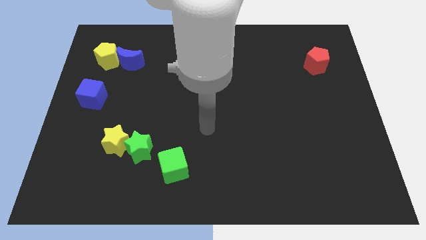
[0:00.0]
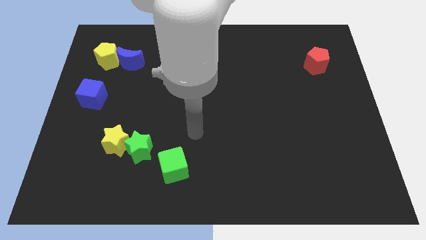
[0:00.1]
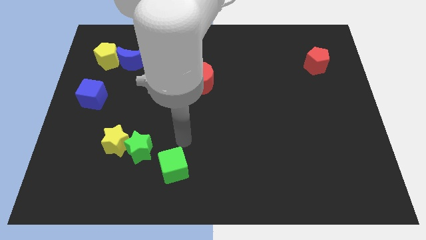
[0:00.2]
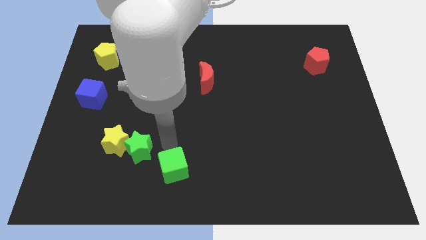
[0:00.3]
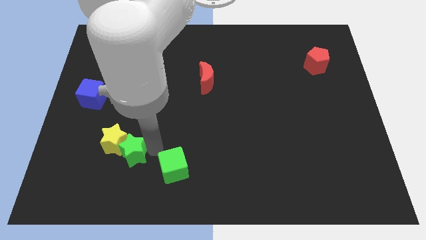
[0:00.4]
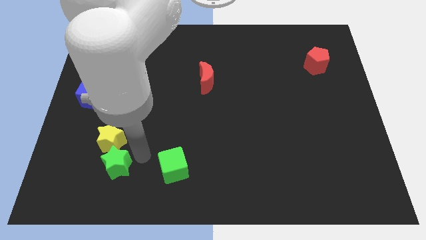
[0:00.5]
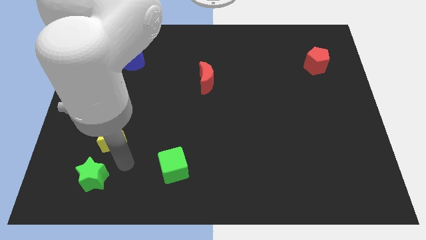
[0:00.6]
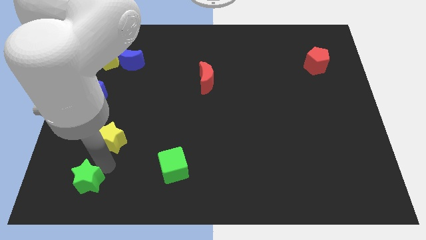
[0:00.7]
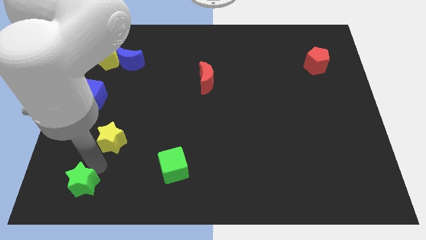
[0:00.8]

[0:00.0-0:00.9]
separate the yellow star from the green star

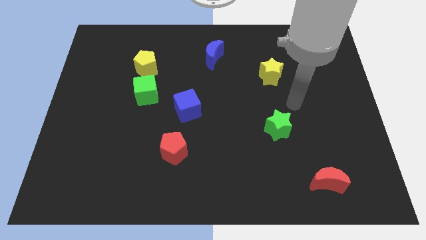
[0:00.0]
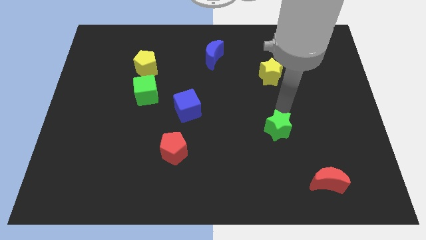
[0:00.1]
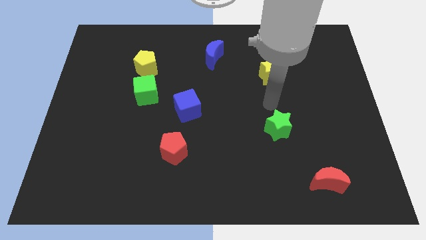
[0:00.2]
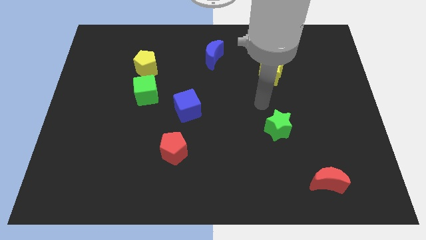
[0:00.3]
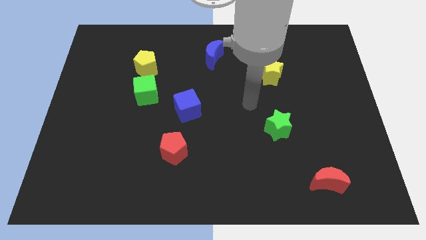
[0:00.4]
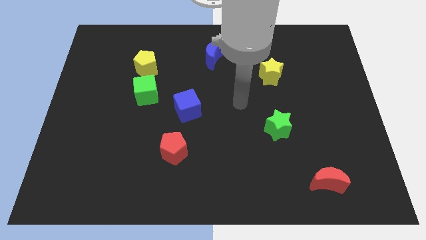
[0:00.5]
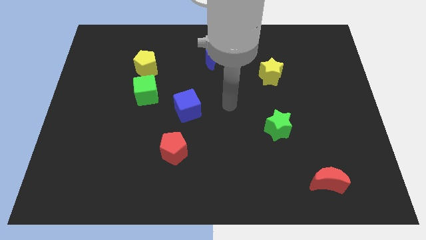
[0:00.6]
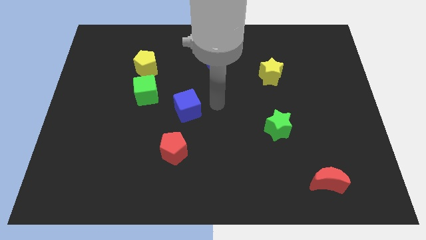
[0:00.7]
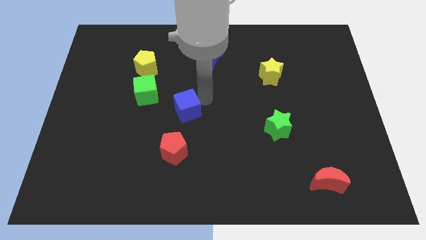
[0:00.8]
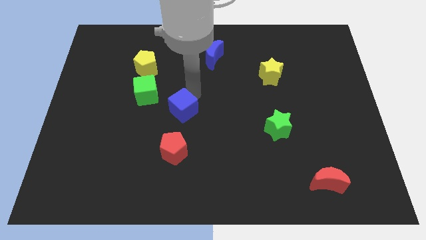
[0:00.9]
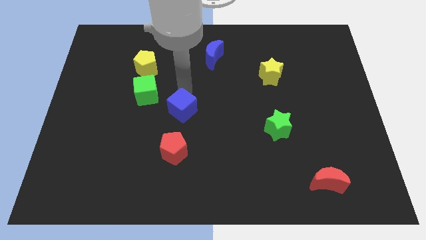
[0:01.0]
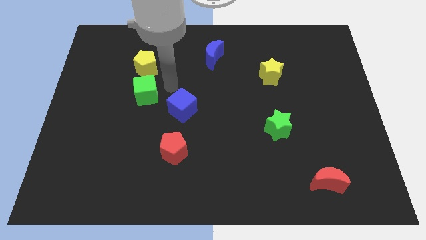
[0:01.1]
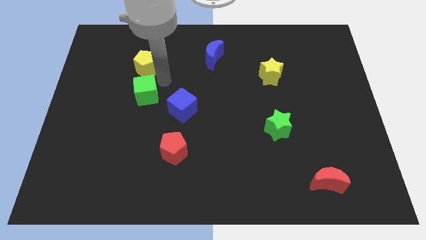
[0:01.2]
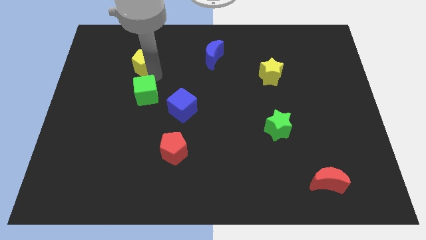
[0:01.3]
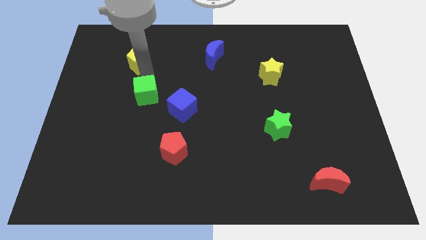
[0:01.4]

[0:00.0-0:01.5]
separate the green cube from the yellow pentagon

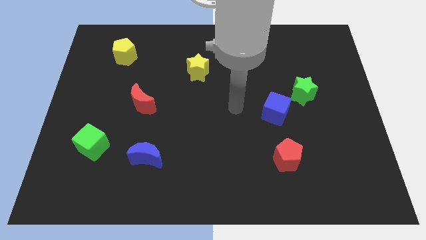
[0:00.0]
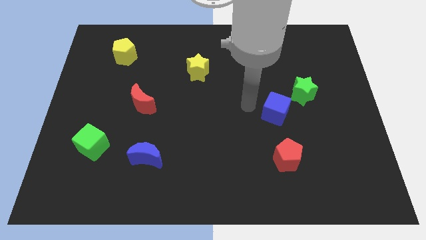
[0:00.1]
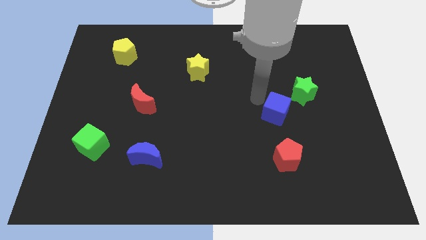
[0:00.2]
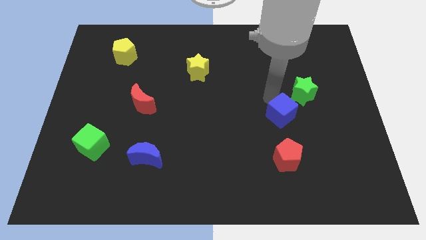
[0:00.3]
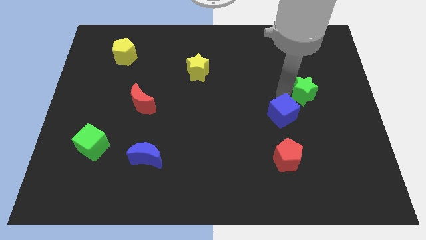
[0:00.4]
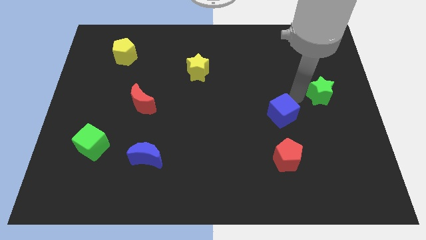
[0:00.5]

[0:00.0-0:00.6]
move the blue cube away from the green star

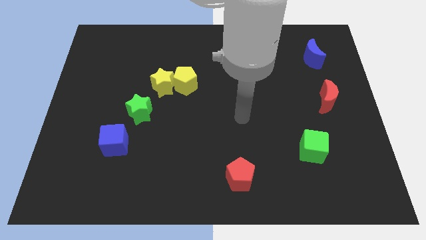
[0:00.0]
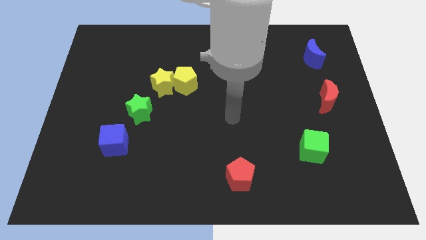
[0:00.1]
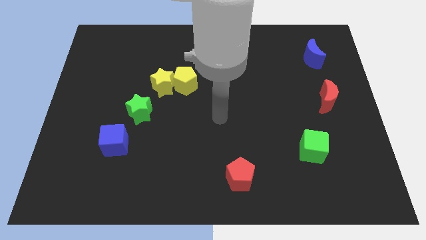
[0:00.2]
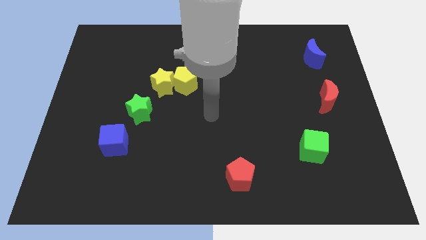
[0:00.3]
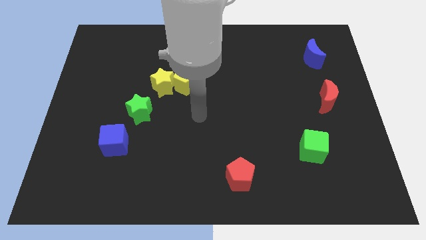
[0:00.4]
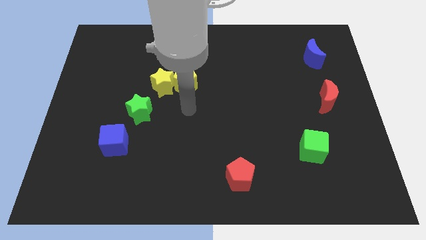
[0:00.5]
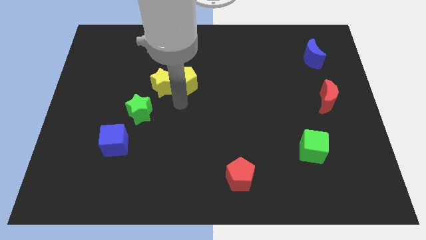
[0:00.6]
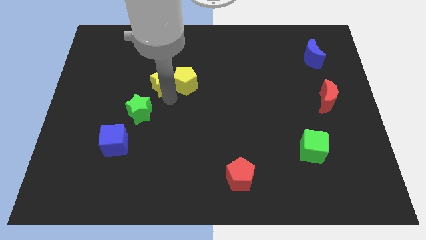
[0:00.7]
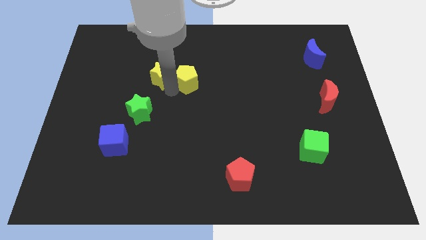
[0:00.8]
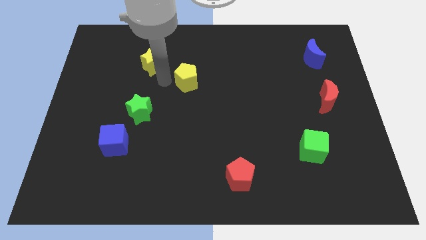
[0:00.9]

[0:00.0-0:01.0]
pull the yellow pentagon apart from the yellow star

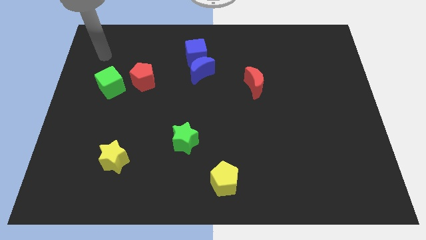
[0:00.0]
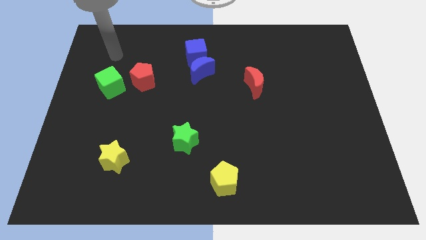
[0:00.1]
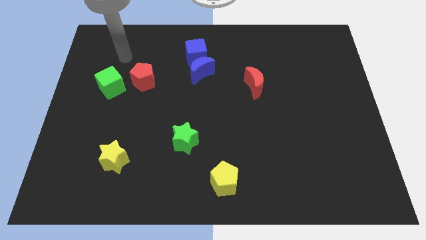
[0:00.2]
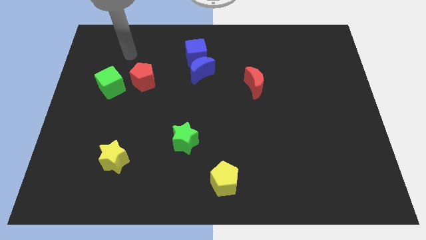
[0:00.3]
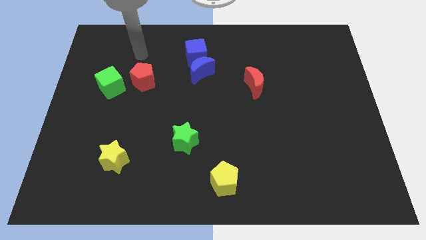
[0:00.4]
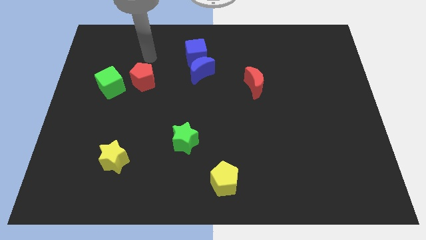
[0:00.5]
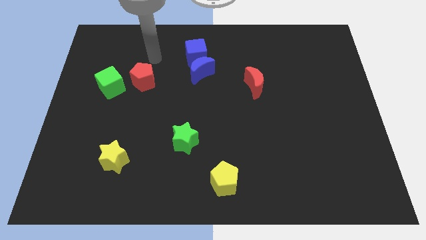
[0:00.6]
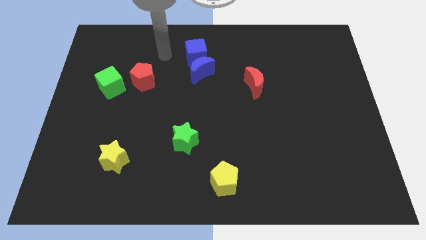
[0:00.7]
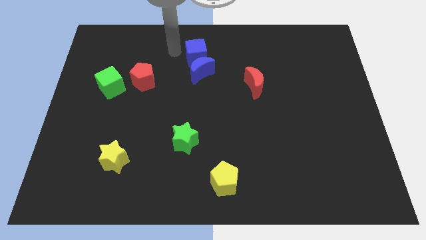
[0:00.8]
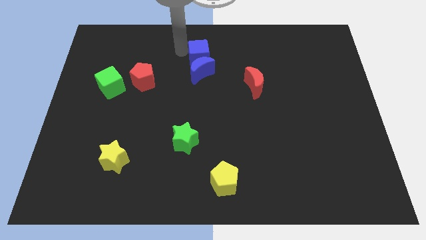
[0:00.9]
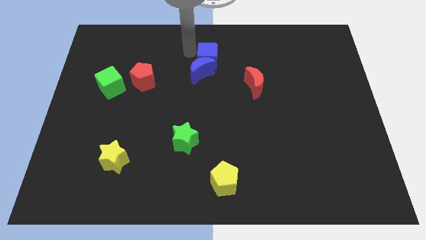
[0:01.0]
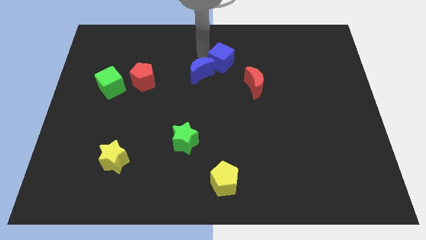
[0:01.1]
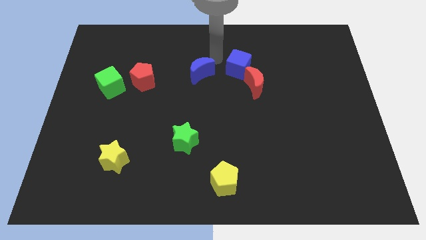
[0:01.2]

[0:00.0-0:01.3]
separate the blue moon from the blue cube

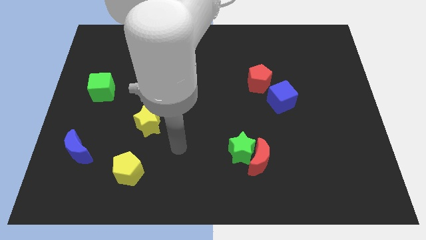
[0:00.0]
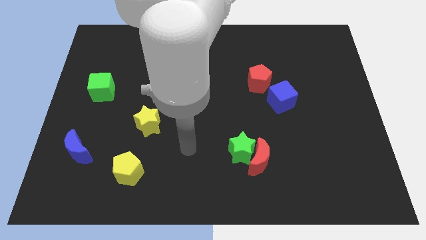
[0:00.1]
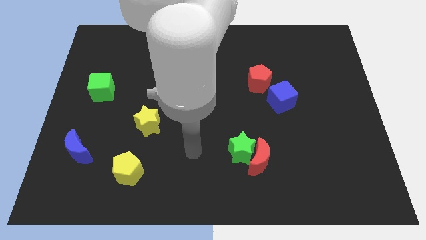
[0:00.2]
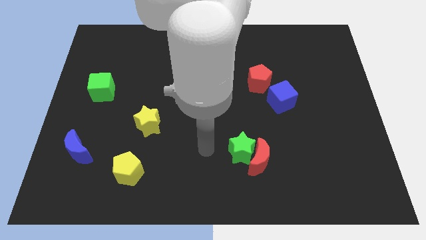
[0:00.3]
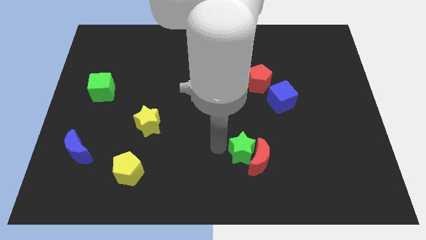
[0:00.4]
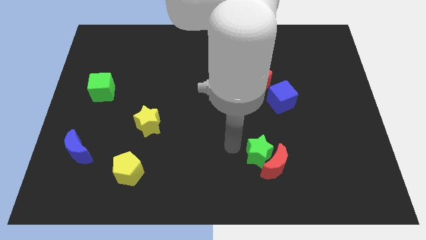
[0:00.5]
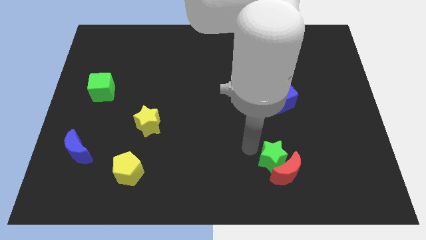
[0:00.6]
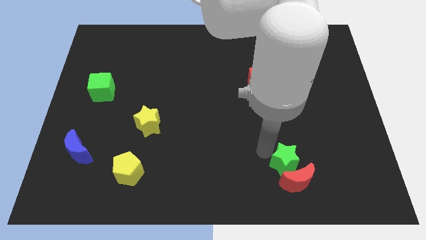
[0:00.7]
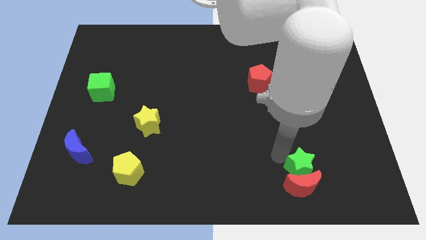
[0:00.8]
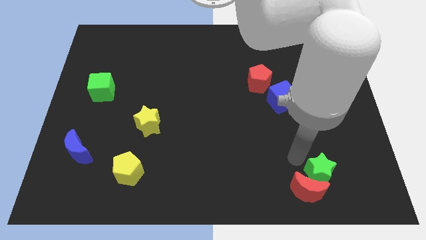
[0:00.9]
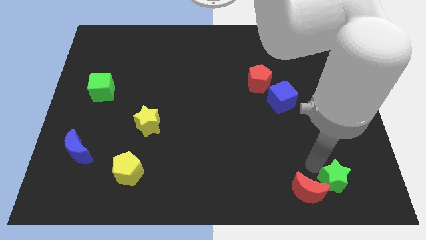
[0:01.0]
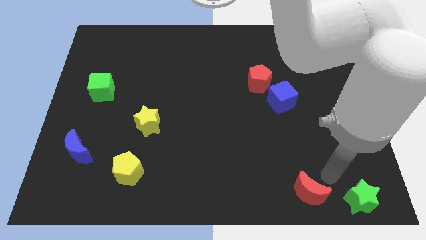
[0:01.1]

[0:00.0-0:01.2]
pull the red moon apart from the green star

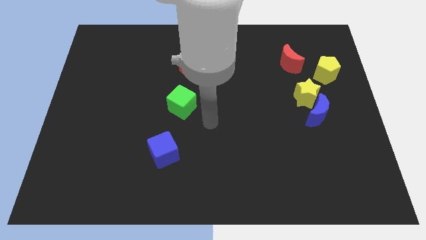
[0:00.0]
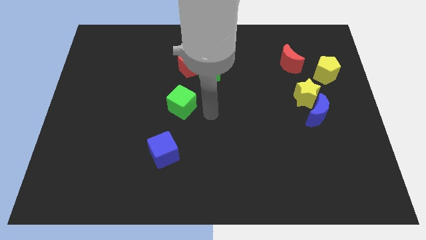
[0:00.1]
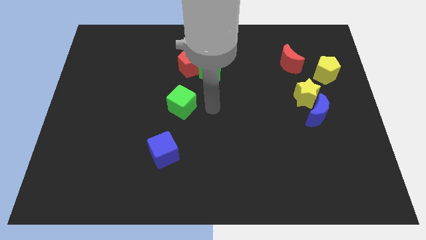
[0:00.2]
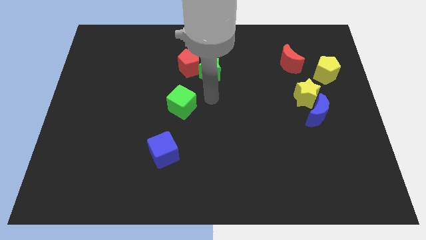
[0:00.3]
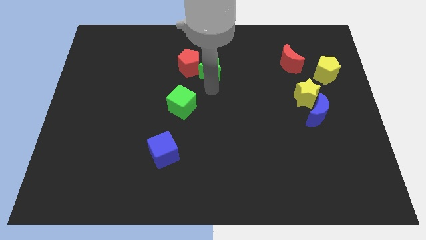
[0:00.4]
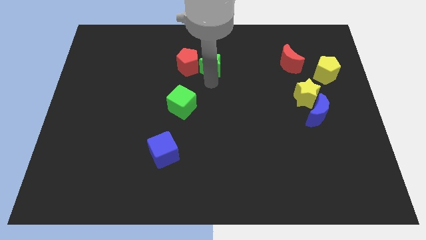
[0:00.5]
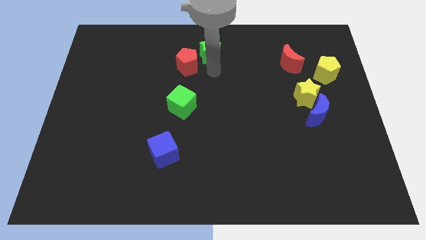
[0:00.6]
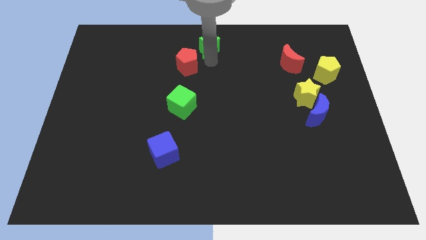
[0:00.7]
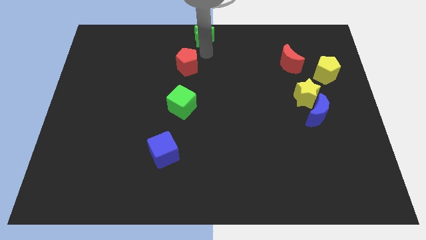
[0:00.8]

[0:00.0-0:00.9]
pull the red pentagon apart from the green star

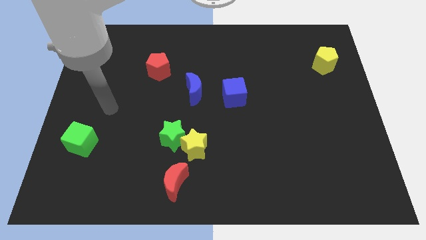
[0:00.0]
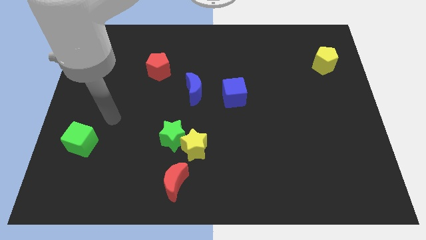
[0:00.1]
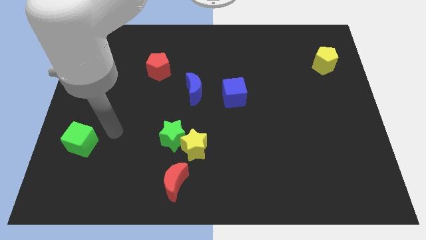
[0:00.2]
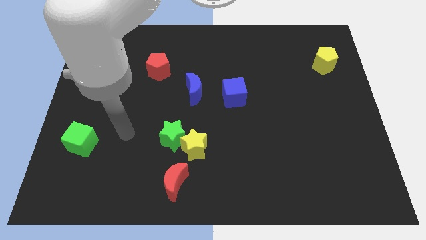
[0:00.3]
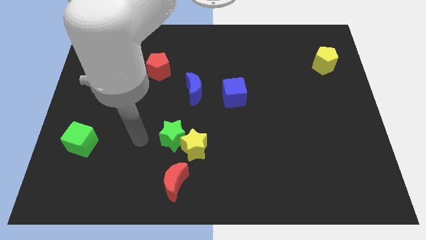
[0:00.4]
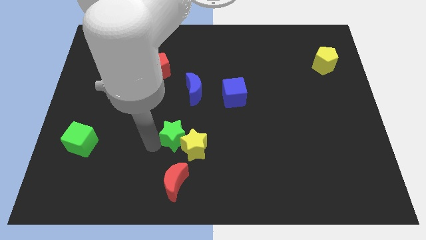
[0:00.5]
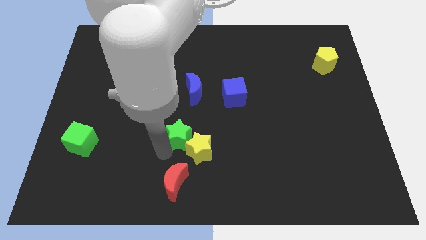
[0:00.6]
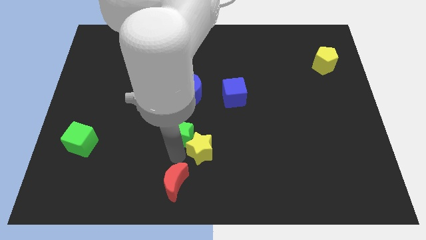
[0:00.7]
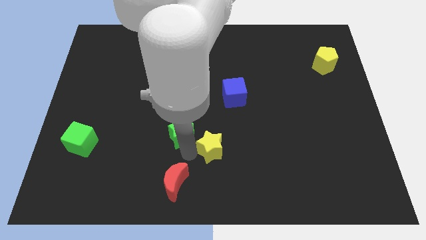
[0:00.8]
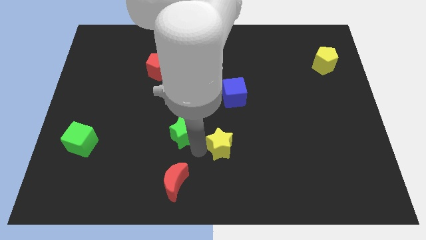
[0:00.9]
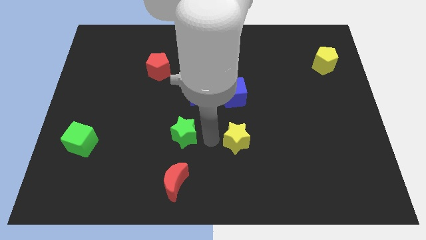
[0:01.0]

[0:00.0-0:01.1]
pull the green star apart from the yellow star

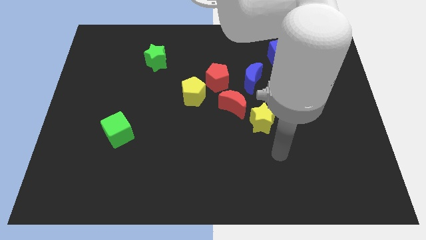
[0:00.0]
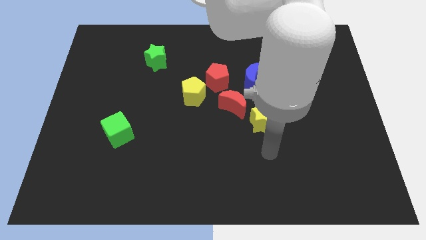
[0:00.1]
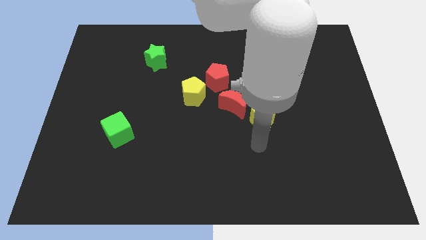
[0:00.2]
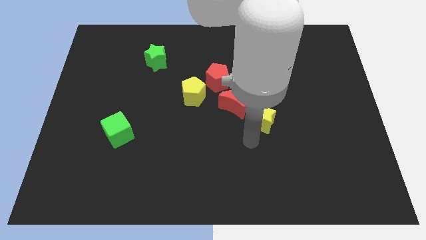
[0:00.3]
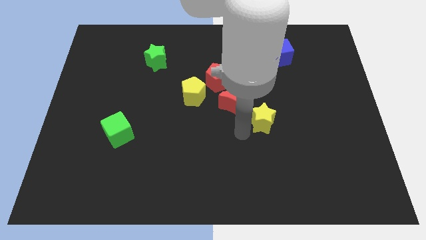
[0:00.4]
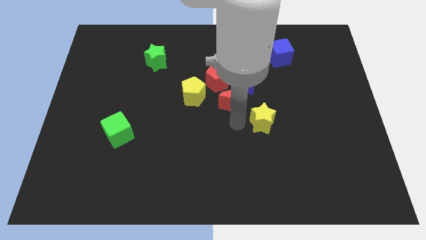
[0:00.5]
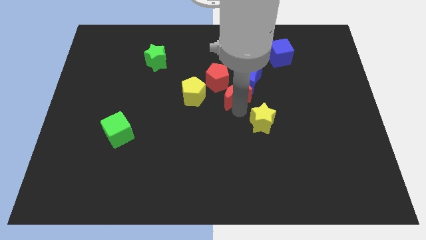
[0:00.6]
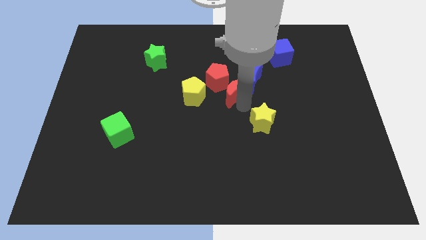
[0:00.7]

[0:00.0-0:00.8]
move the yellow star away from the red moon

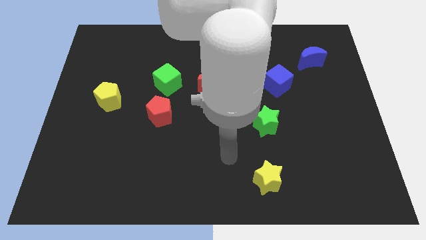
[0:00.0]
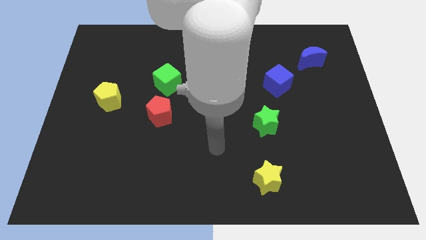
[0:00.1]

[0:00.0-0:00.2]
separate the red pentagon from the green cube
